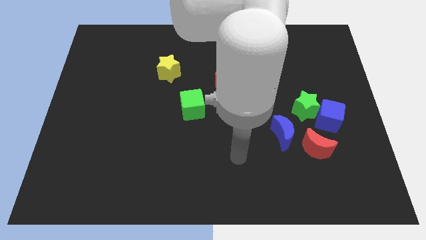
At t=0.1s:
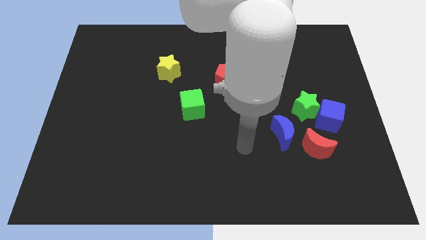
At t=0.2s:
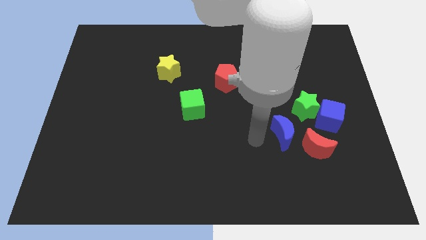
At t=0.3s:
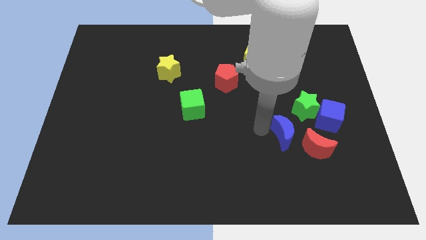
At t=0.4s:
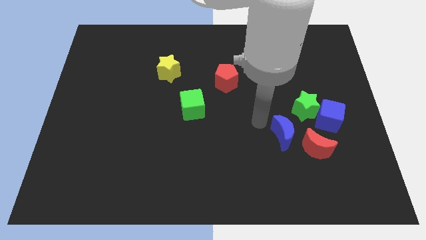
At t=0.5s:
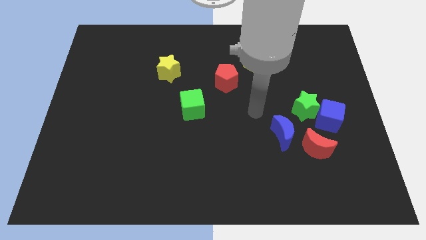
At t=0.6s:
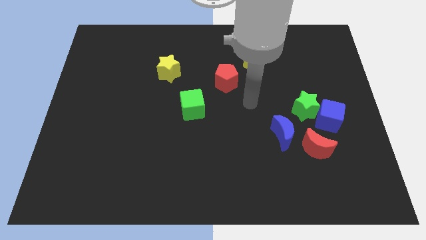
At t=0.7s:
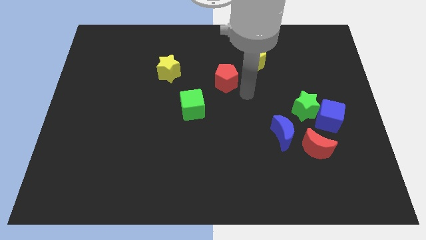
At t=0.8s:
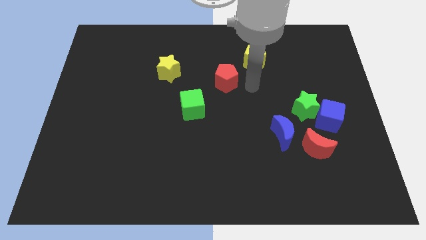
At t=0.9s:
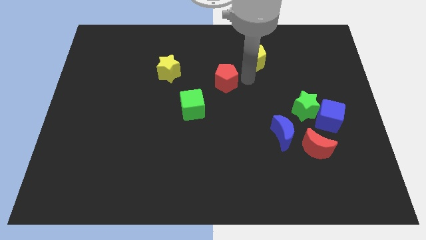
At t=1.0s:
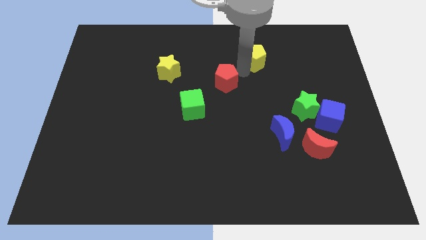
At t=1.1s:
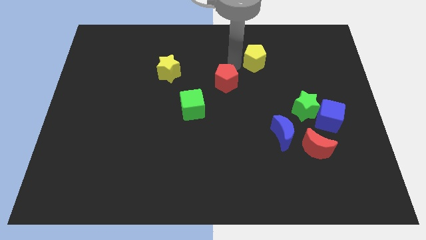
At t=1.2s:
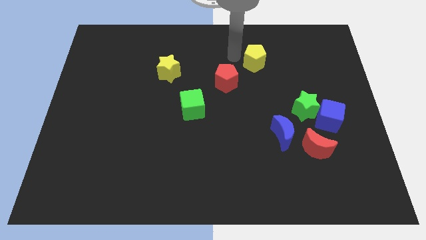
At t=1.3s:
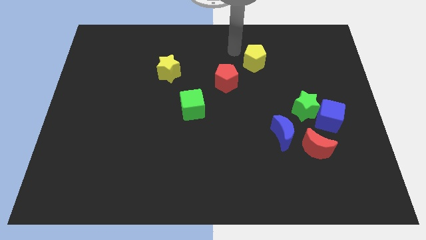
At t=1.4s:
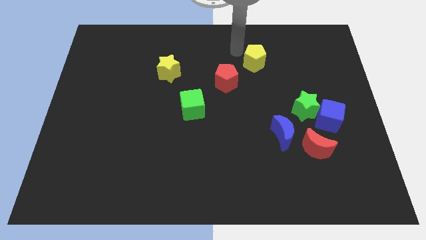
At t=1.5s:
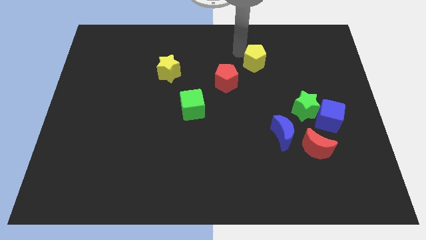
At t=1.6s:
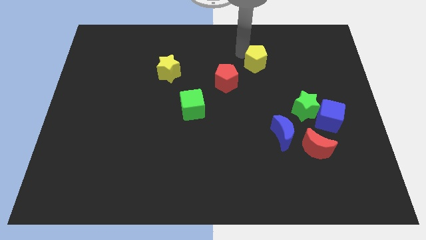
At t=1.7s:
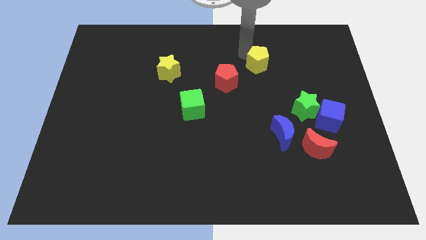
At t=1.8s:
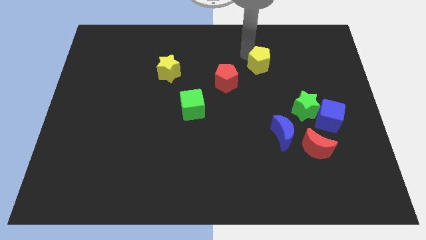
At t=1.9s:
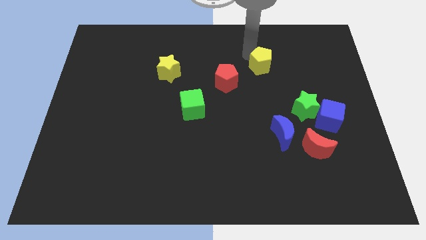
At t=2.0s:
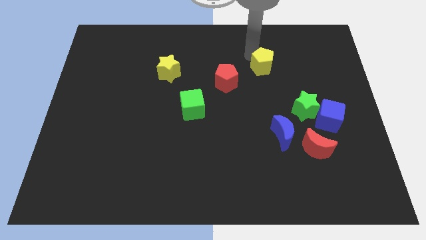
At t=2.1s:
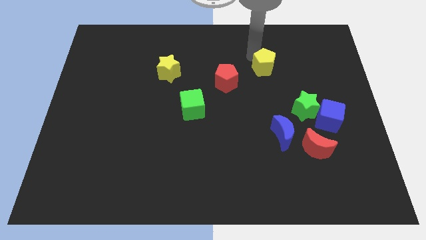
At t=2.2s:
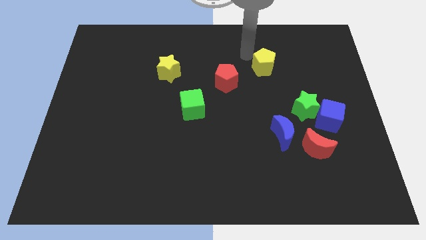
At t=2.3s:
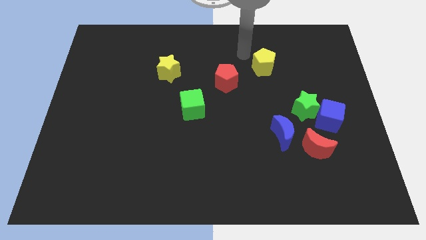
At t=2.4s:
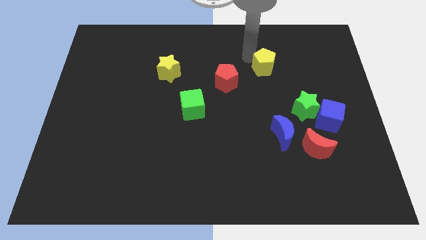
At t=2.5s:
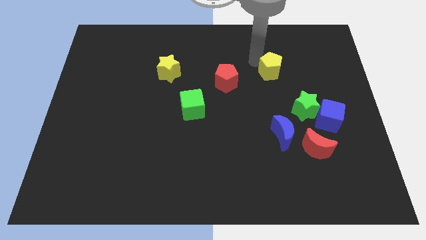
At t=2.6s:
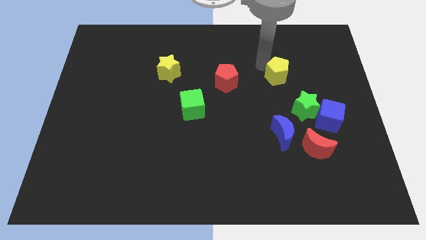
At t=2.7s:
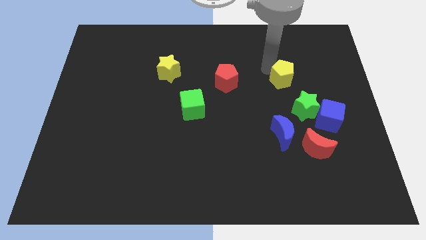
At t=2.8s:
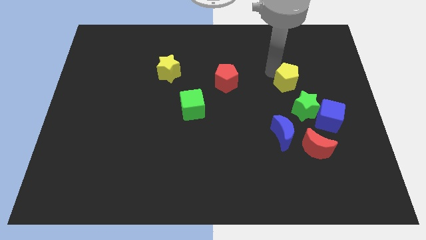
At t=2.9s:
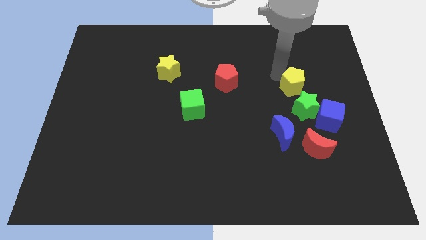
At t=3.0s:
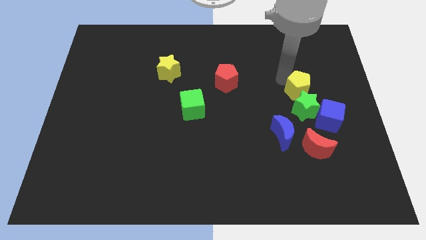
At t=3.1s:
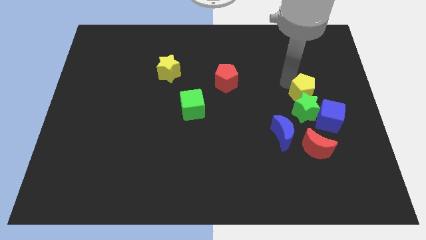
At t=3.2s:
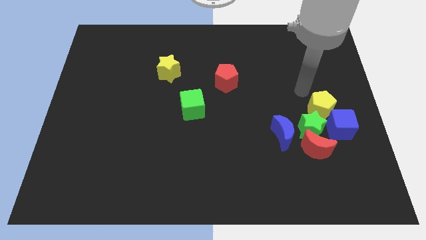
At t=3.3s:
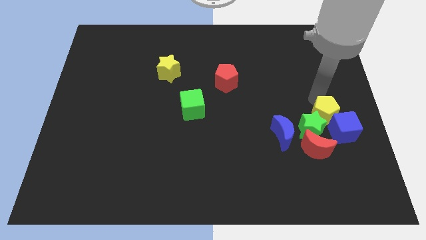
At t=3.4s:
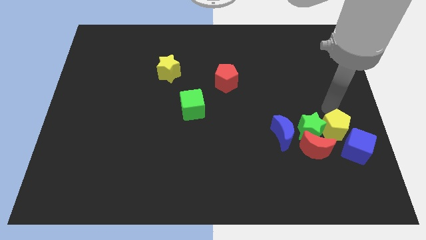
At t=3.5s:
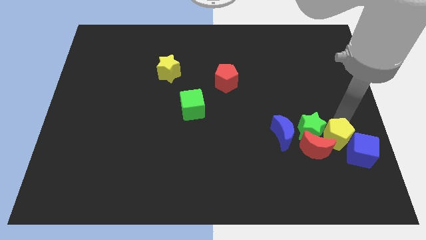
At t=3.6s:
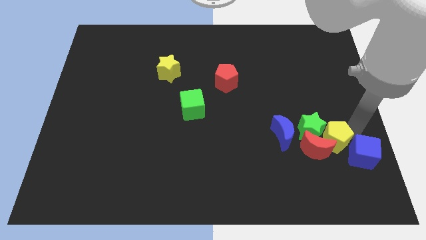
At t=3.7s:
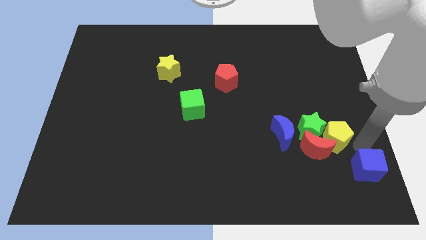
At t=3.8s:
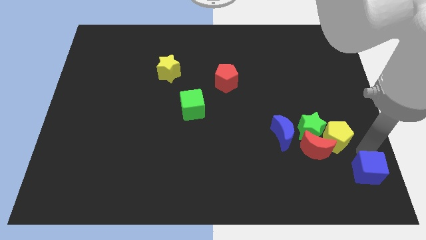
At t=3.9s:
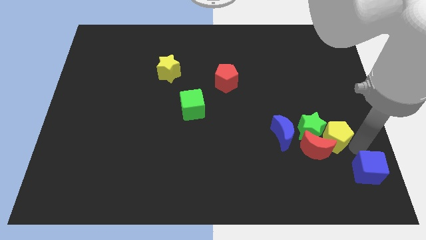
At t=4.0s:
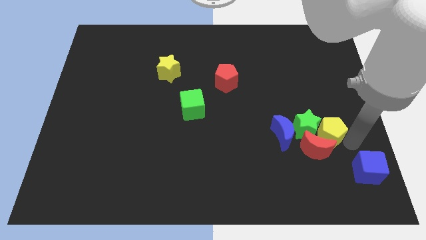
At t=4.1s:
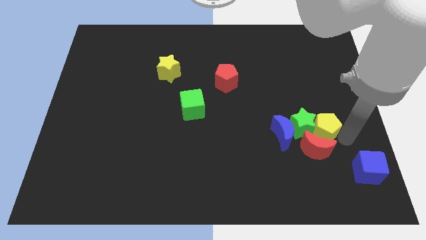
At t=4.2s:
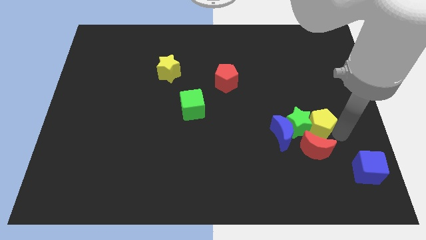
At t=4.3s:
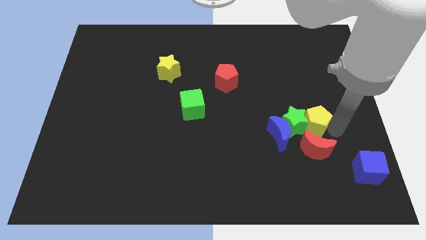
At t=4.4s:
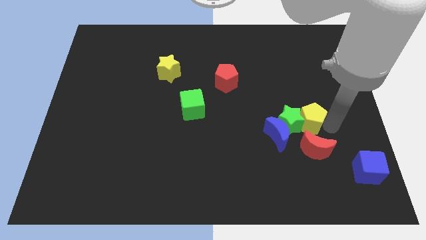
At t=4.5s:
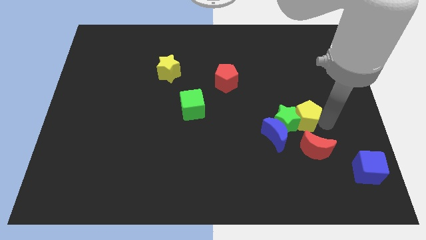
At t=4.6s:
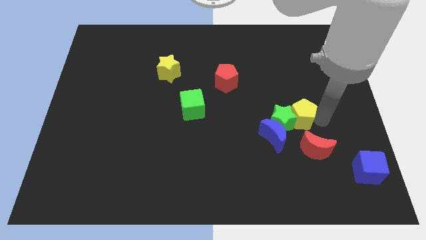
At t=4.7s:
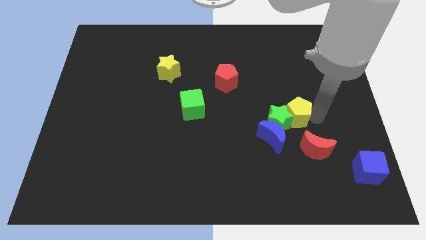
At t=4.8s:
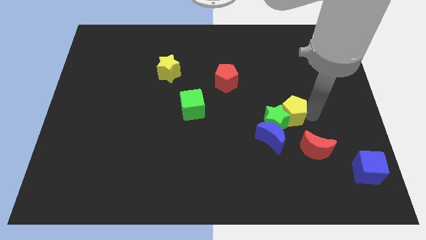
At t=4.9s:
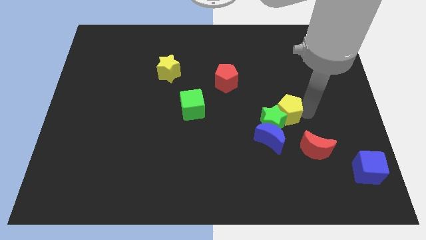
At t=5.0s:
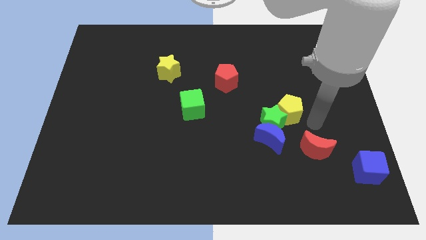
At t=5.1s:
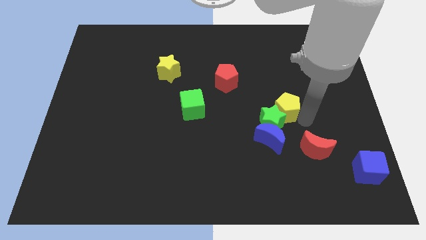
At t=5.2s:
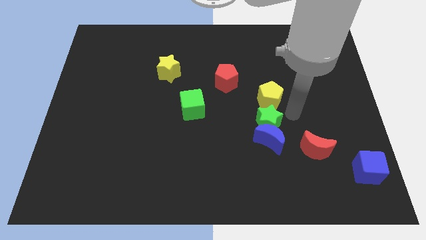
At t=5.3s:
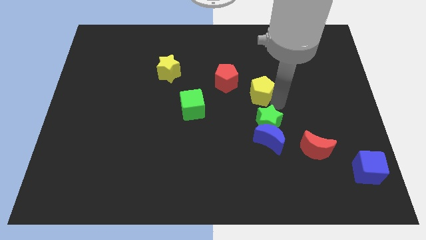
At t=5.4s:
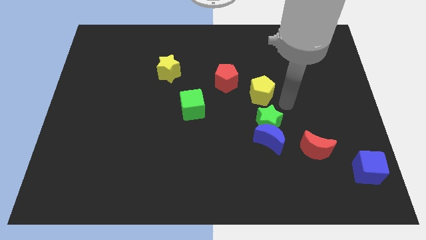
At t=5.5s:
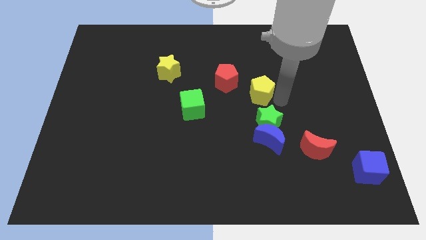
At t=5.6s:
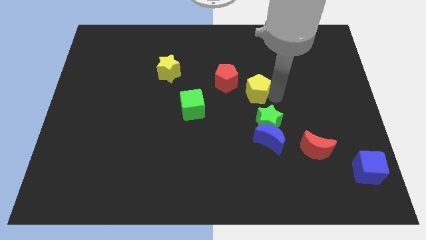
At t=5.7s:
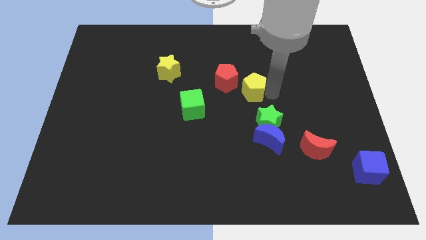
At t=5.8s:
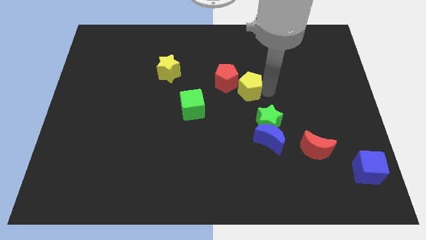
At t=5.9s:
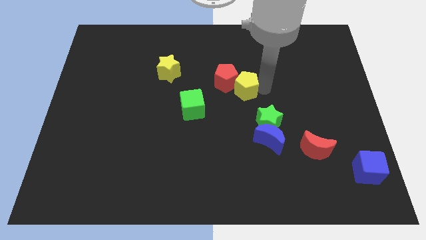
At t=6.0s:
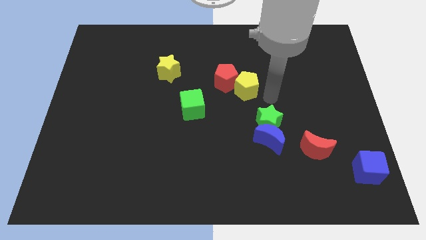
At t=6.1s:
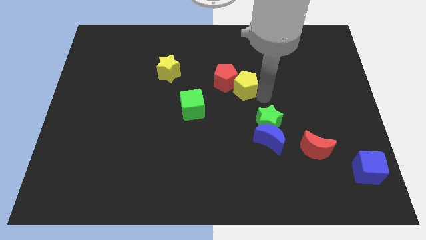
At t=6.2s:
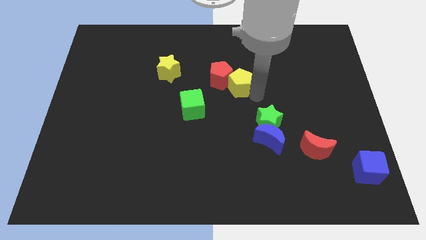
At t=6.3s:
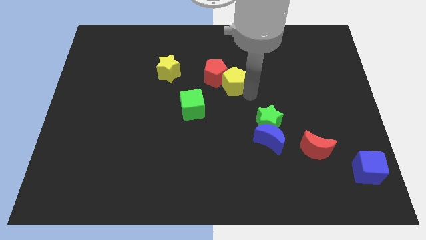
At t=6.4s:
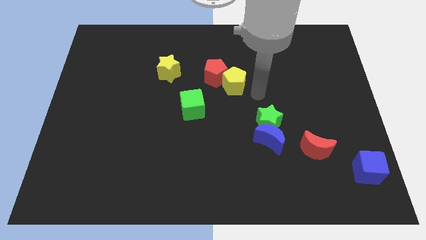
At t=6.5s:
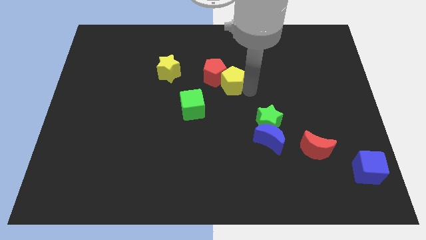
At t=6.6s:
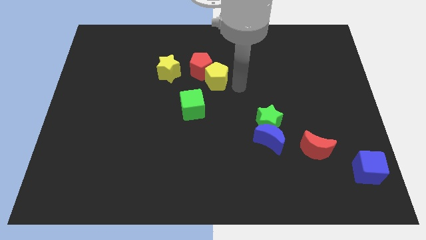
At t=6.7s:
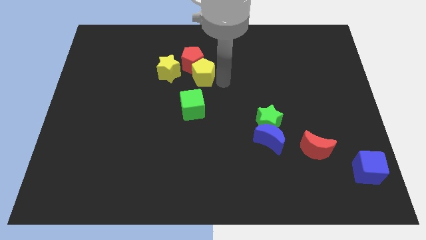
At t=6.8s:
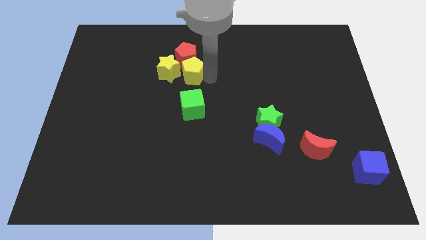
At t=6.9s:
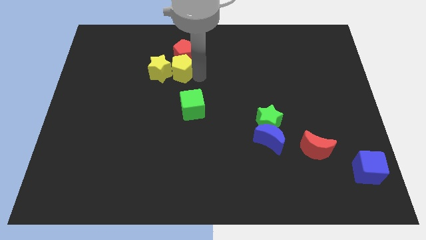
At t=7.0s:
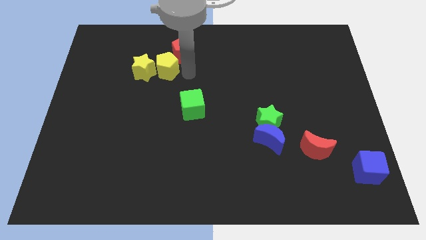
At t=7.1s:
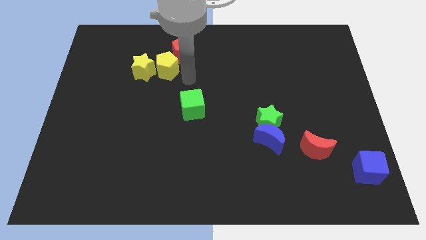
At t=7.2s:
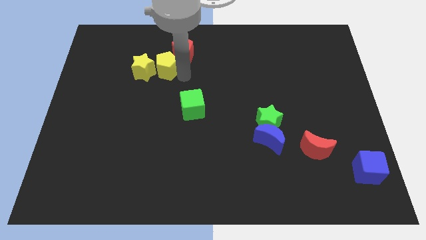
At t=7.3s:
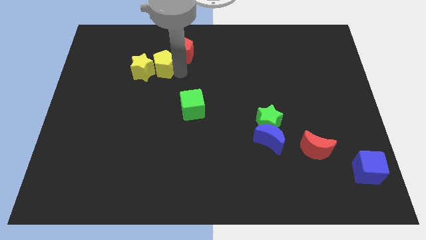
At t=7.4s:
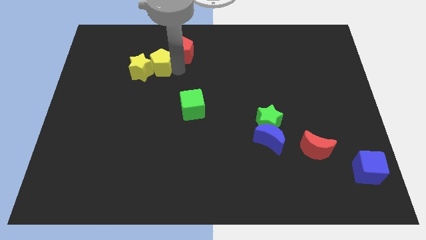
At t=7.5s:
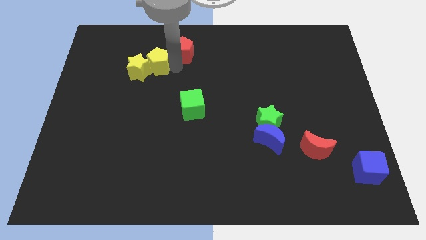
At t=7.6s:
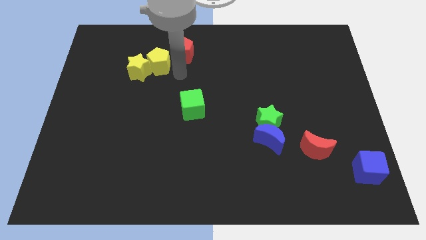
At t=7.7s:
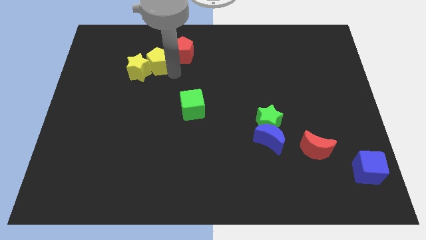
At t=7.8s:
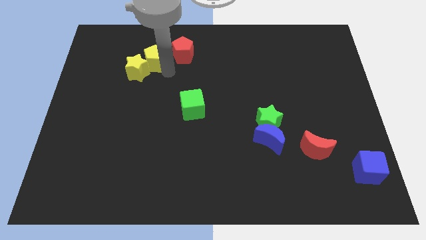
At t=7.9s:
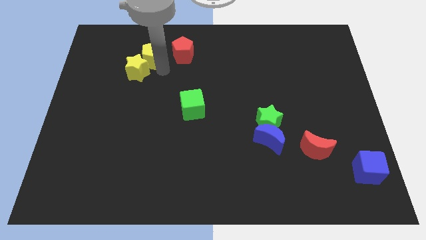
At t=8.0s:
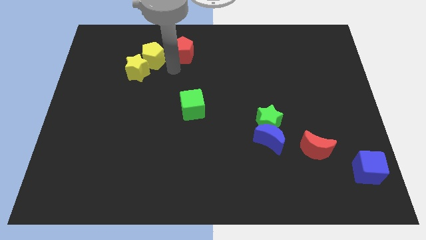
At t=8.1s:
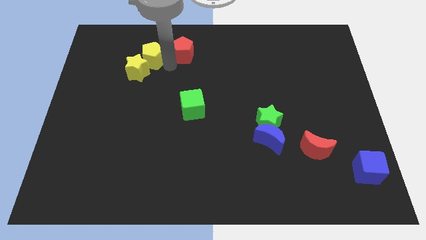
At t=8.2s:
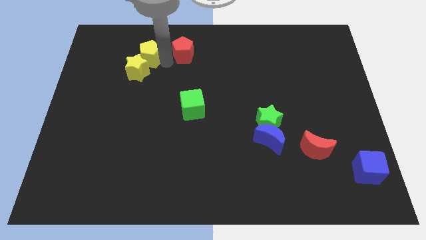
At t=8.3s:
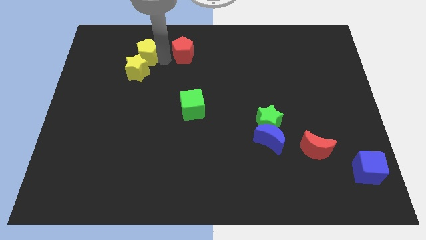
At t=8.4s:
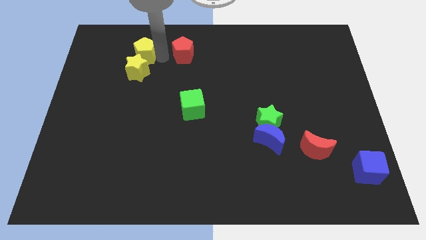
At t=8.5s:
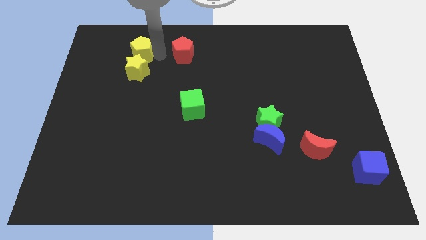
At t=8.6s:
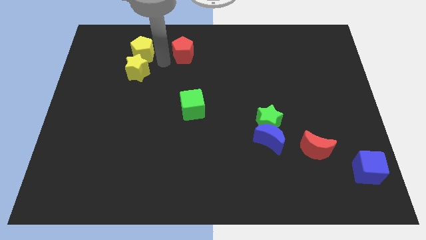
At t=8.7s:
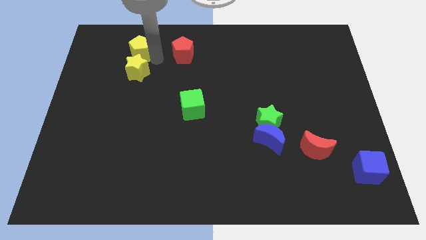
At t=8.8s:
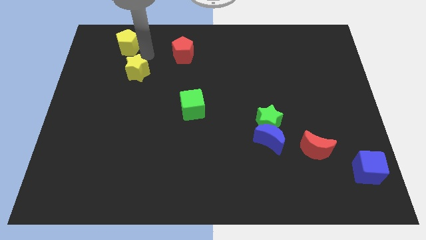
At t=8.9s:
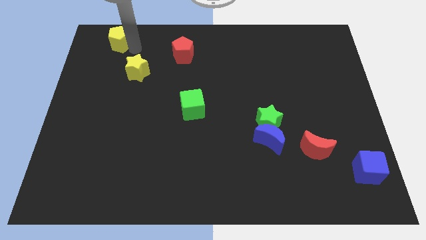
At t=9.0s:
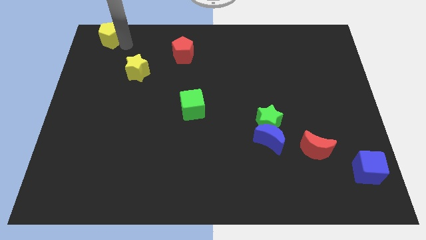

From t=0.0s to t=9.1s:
push the yellow pentagon to the top left of the board
